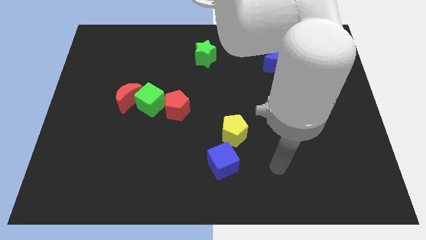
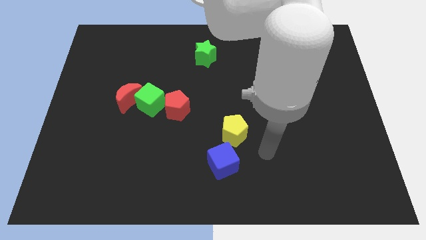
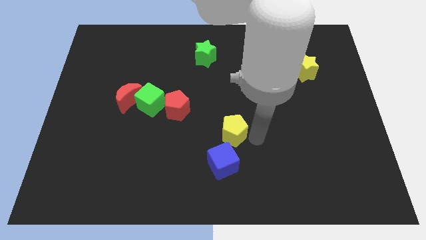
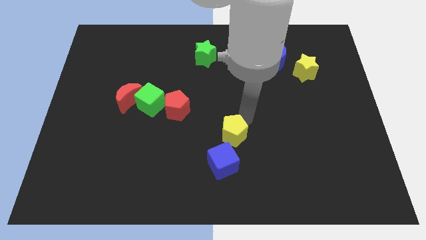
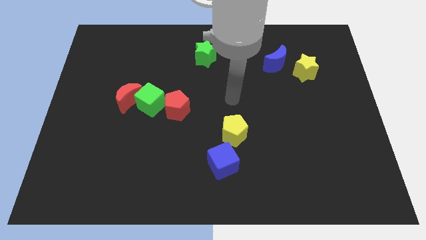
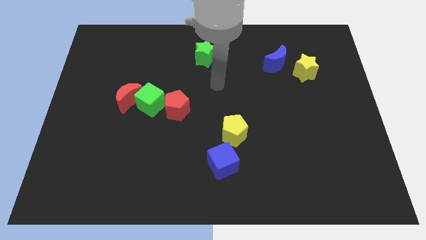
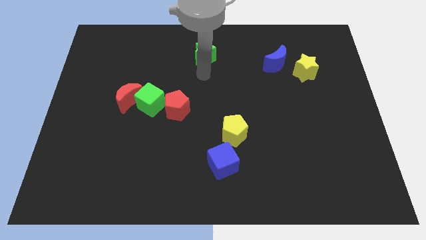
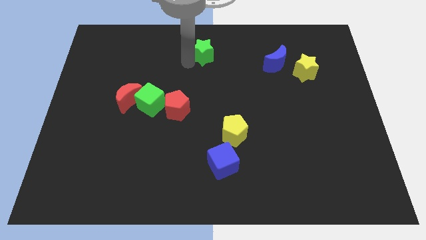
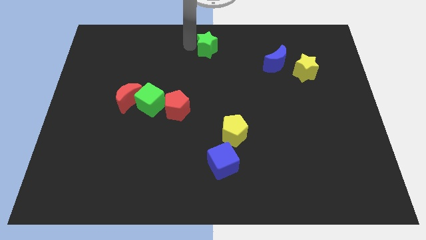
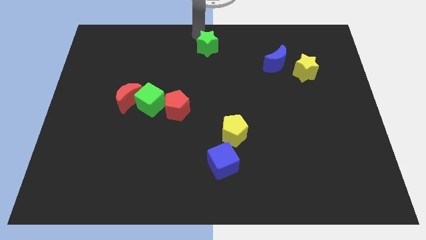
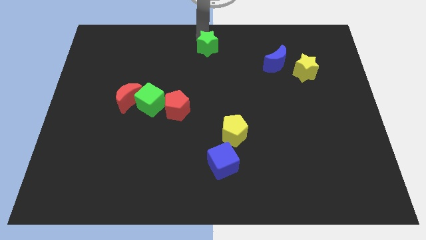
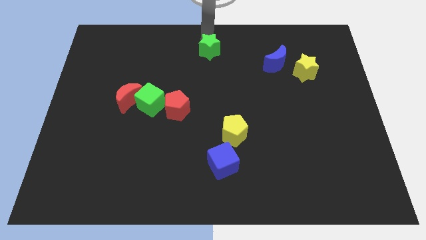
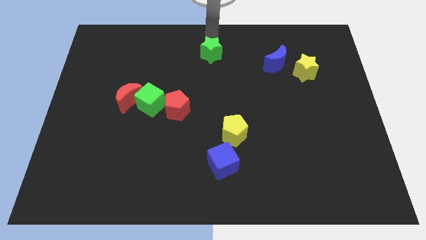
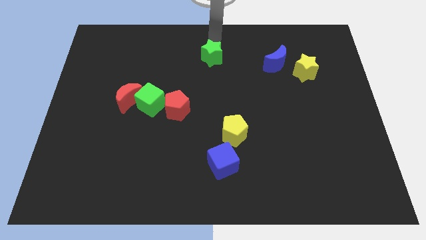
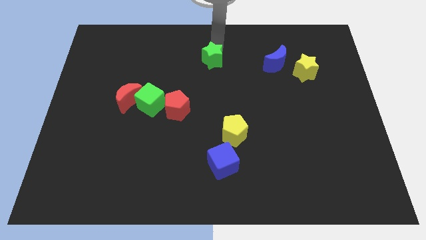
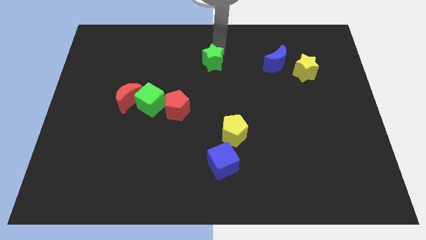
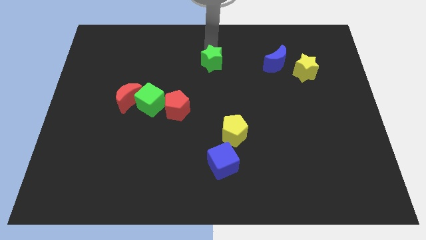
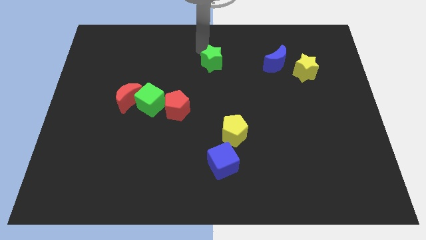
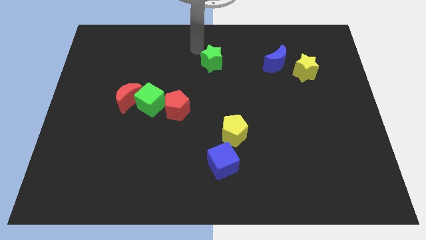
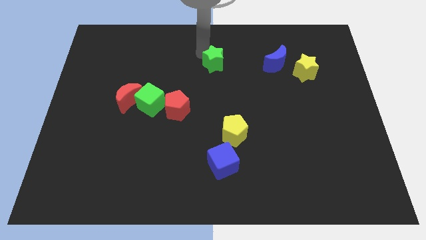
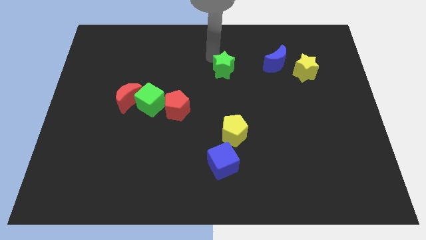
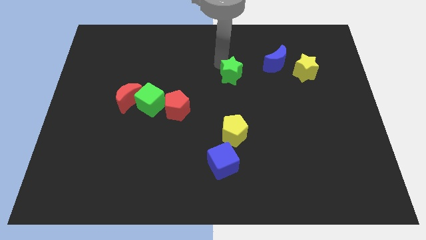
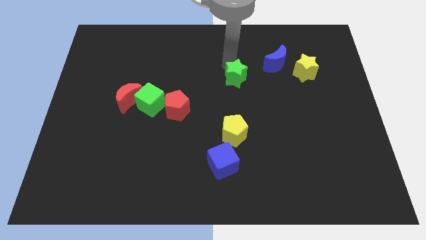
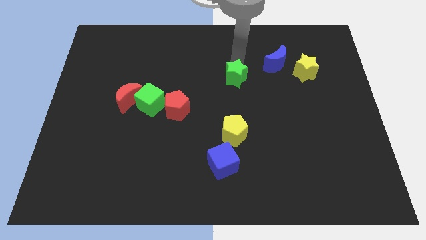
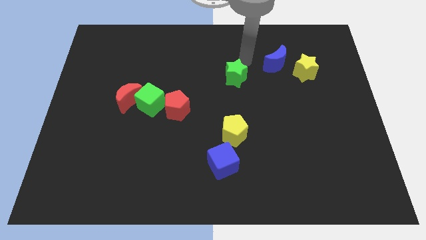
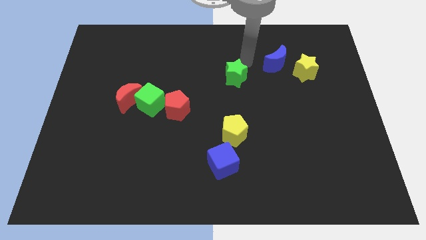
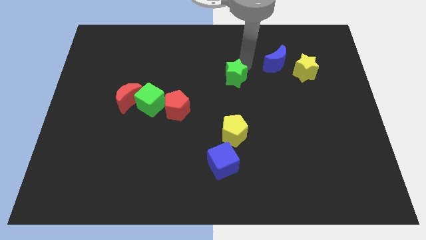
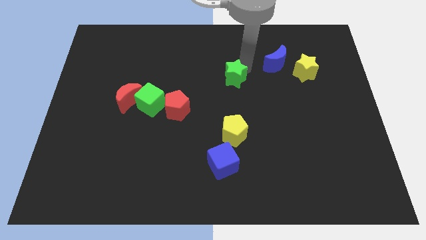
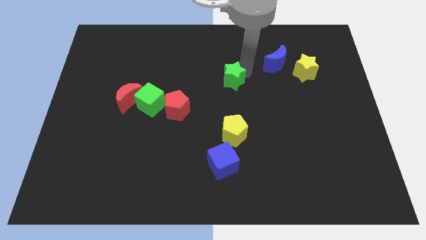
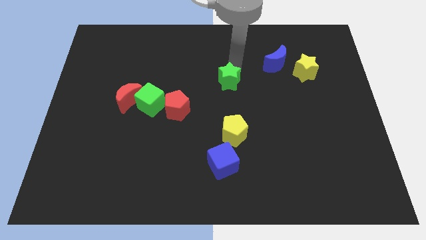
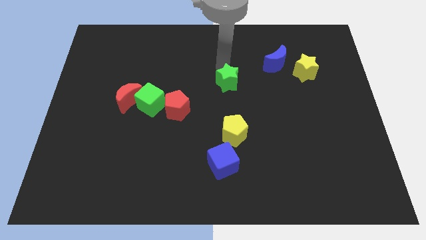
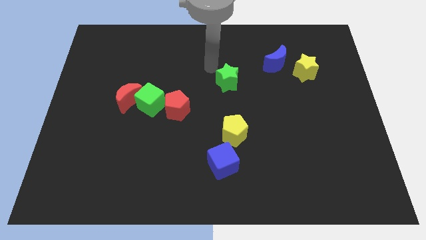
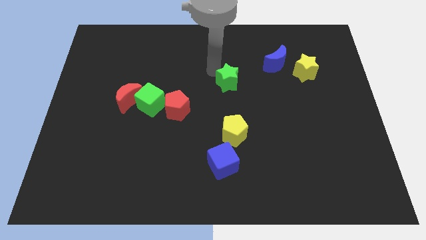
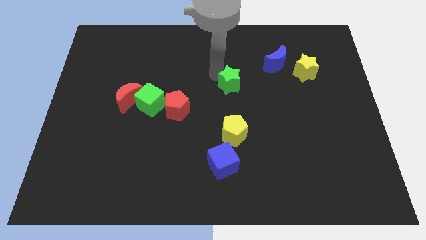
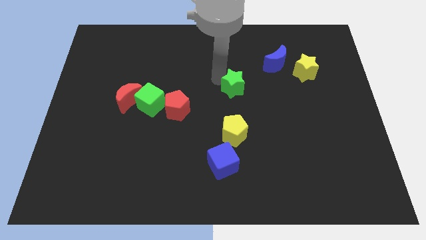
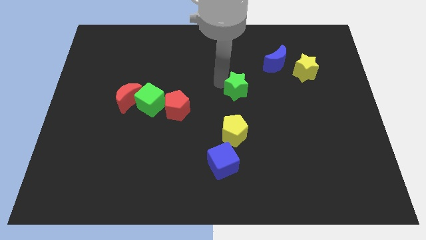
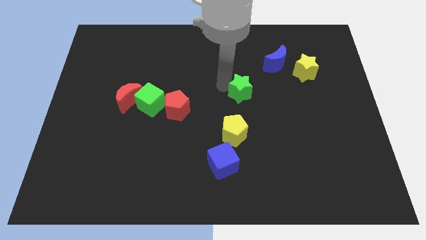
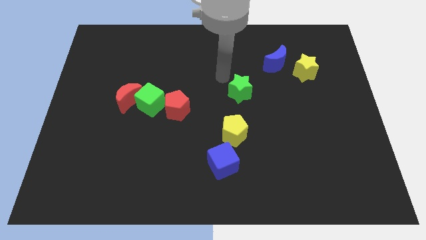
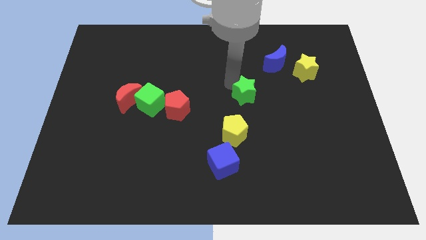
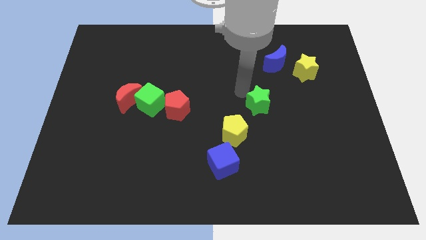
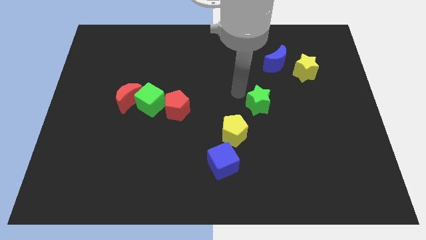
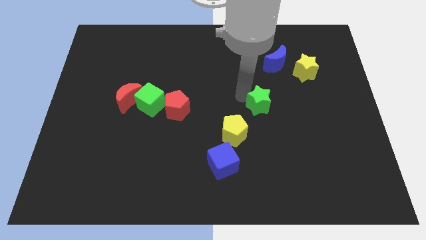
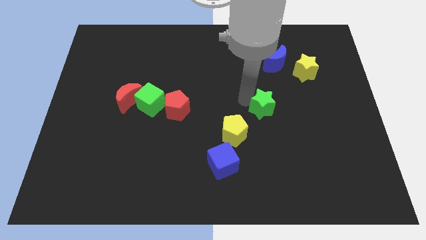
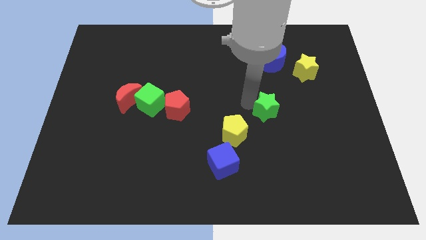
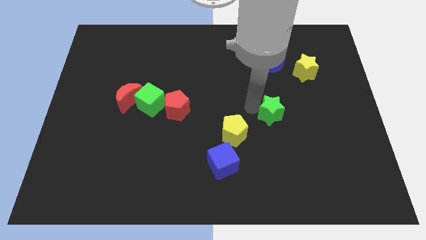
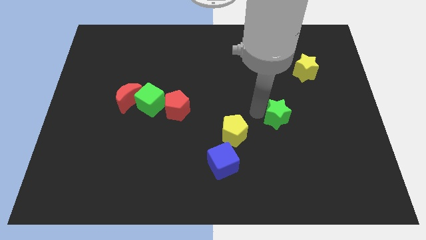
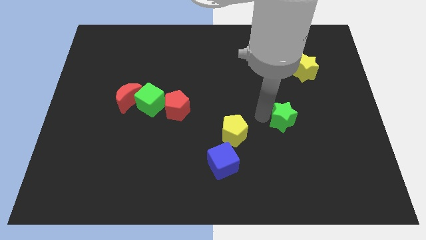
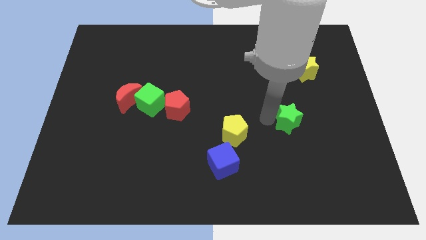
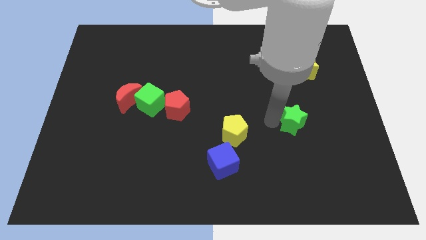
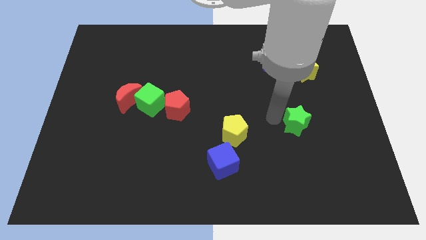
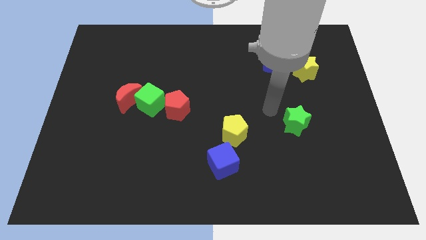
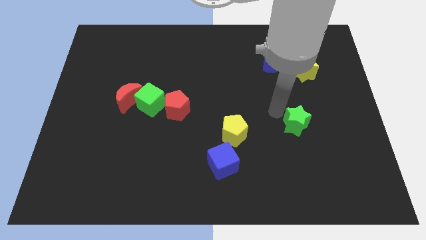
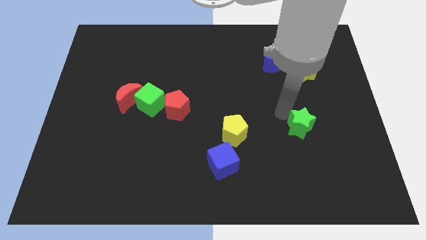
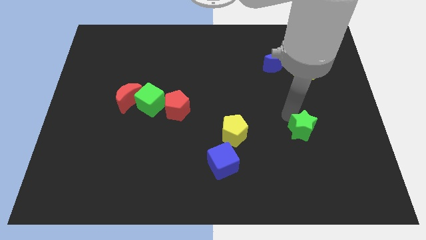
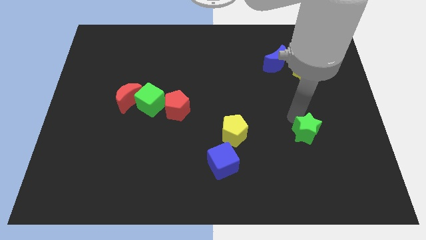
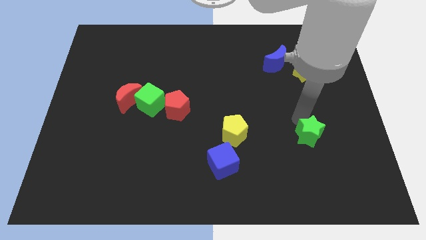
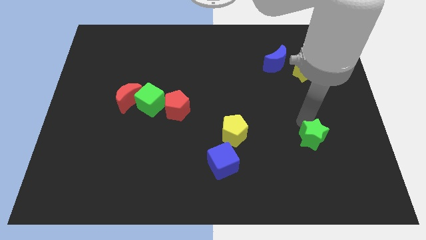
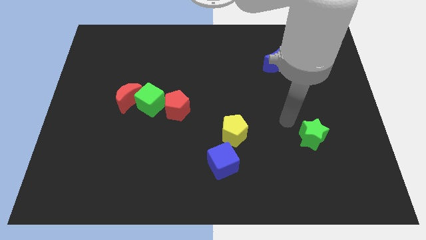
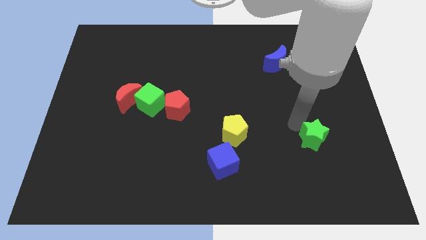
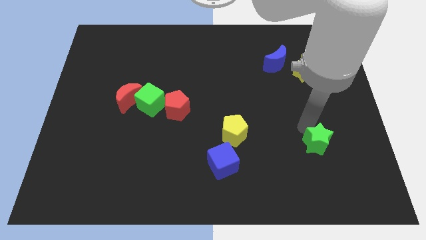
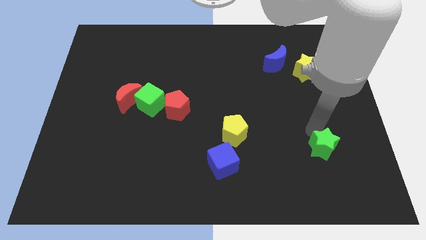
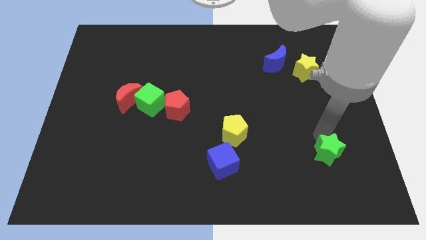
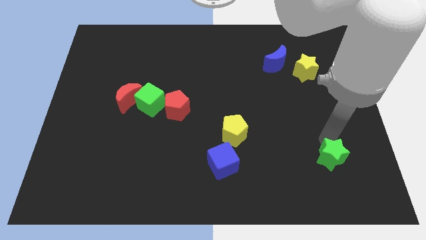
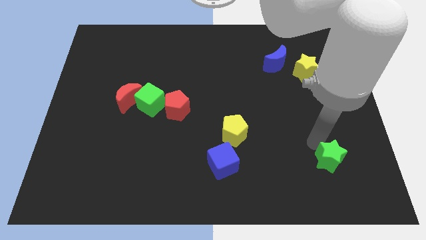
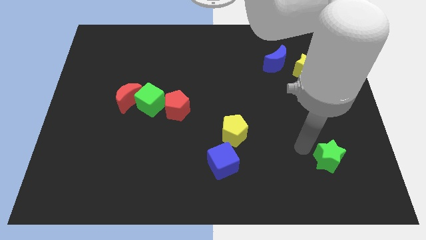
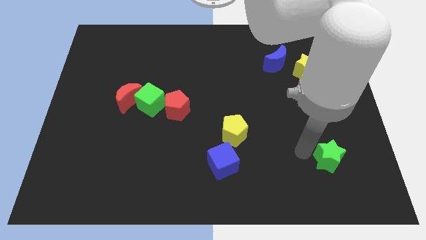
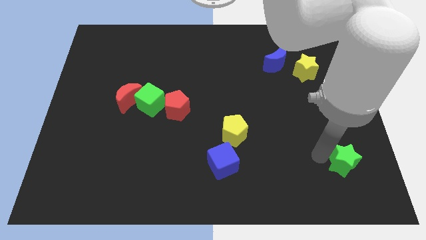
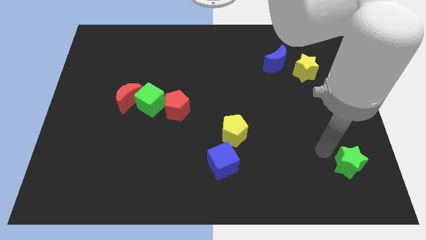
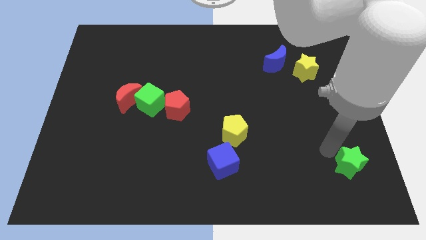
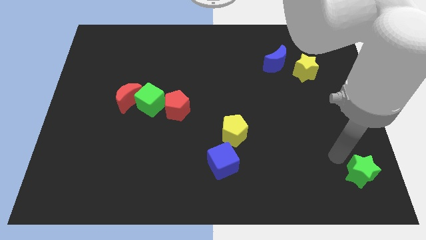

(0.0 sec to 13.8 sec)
move the green star to the bottom right corner
